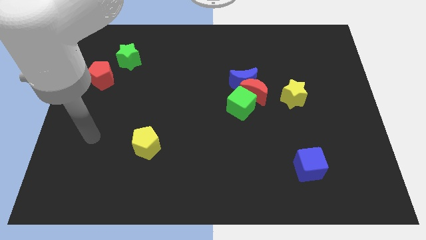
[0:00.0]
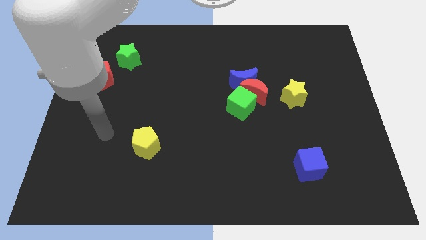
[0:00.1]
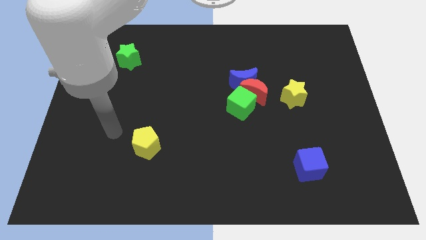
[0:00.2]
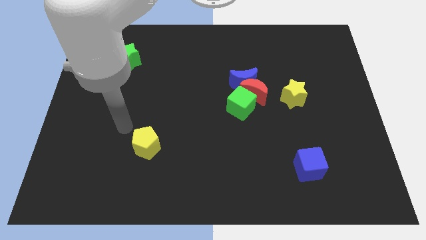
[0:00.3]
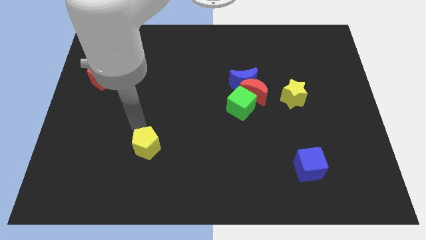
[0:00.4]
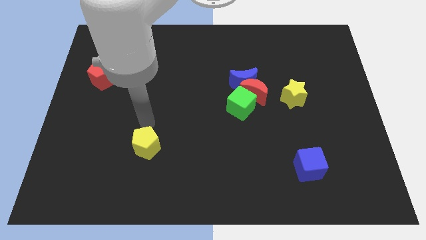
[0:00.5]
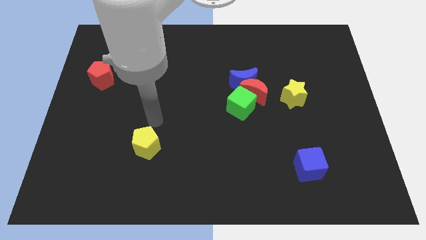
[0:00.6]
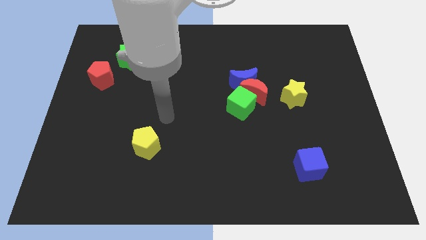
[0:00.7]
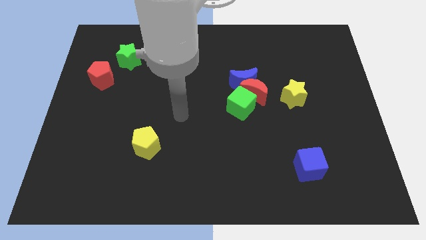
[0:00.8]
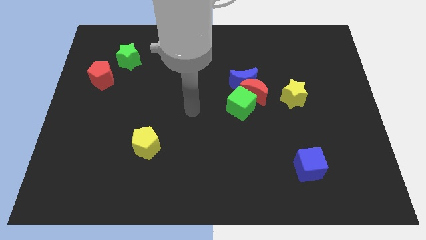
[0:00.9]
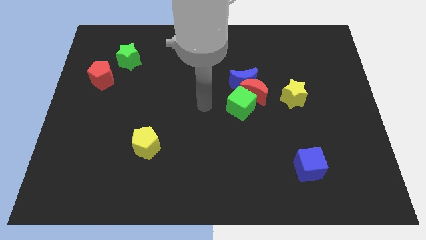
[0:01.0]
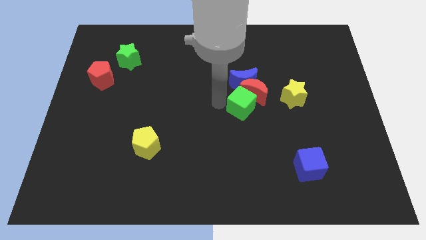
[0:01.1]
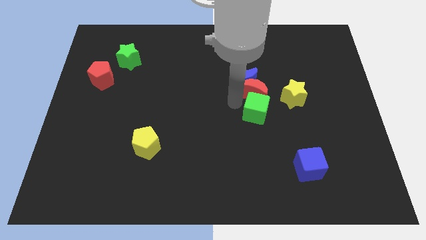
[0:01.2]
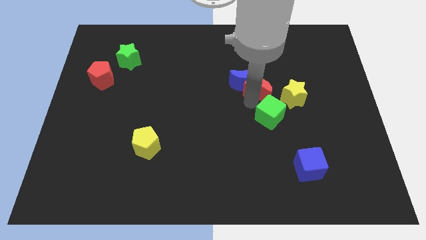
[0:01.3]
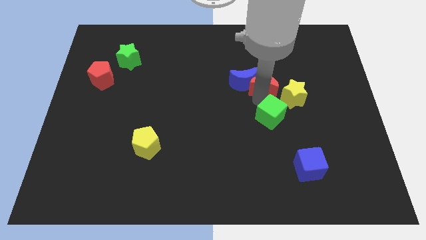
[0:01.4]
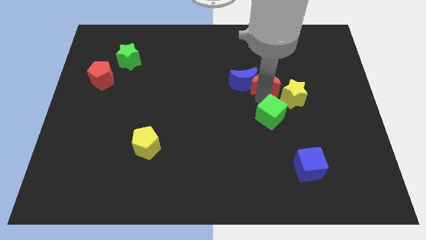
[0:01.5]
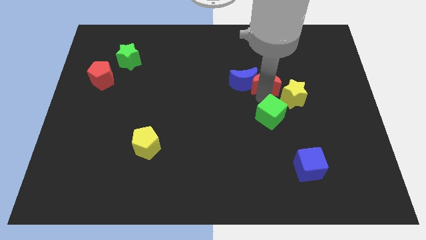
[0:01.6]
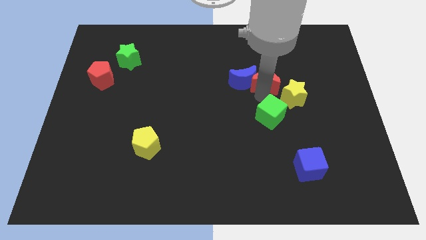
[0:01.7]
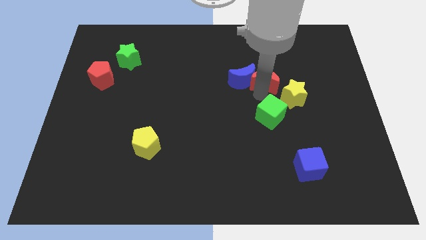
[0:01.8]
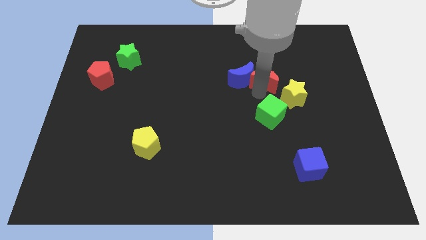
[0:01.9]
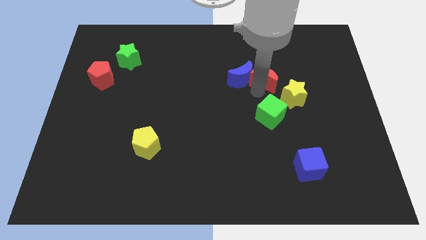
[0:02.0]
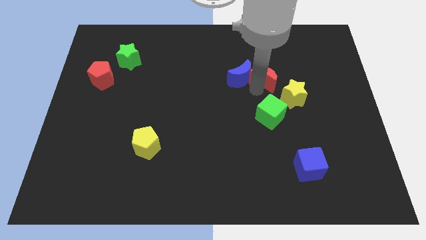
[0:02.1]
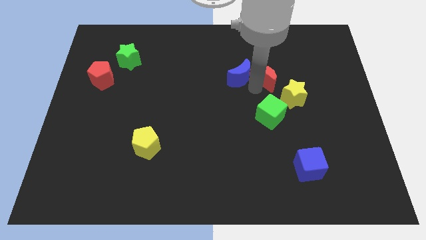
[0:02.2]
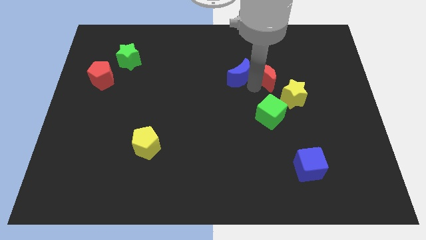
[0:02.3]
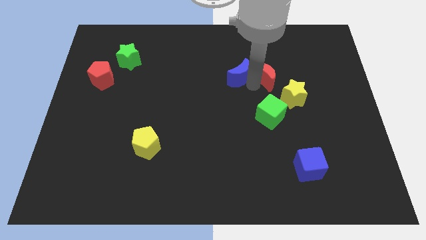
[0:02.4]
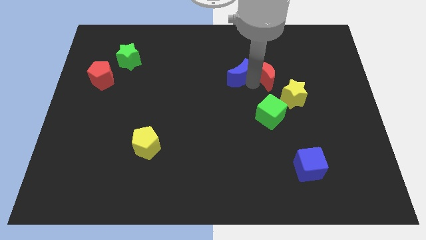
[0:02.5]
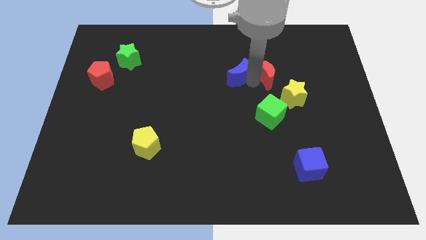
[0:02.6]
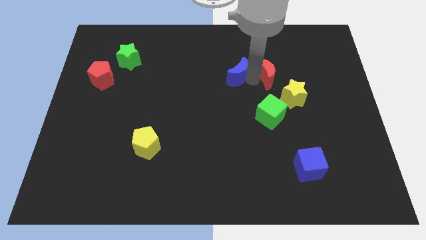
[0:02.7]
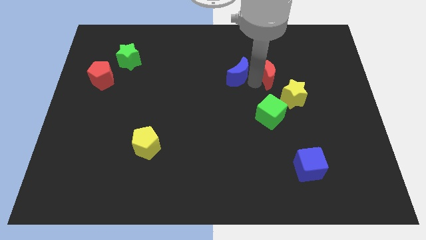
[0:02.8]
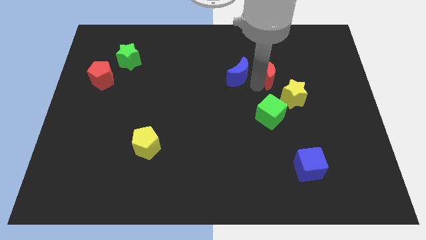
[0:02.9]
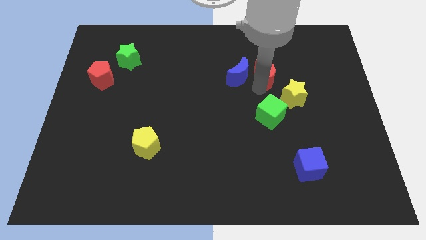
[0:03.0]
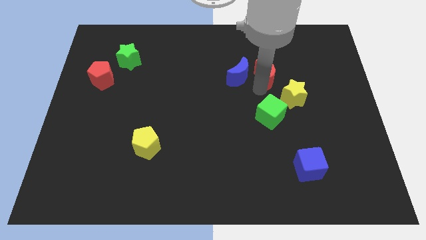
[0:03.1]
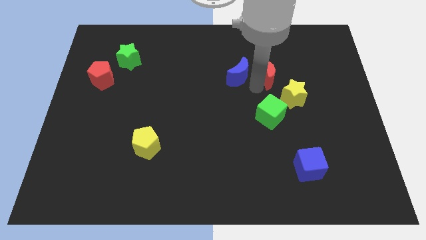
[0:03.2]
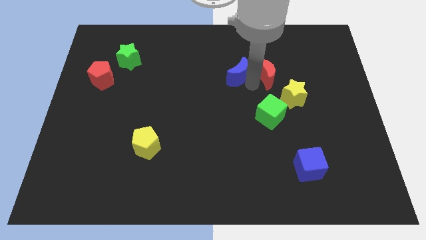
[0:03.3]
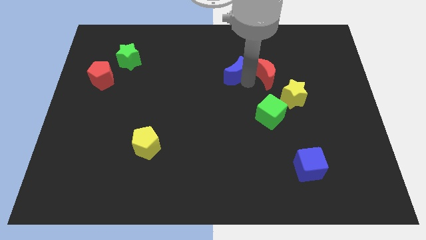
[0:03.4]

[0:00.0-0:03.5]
move the blue moon away from the red moon and green cube

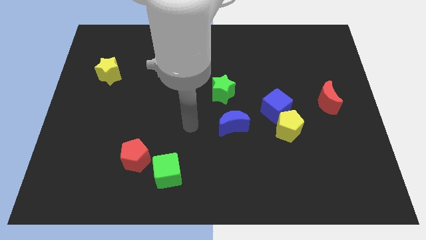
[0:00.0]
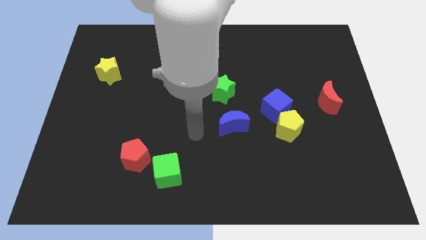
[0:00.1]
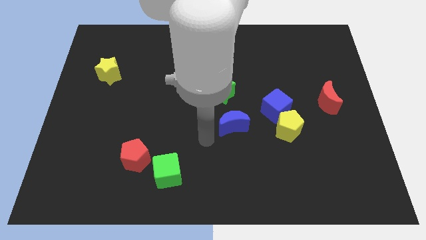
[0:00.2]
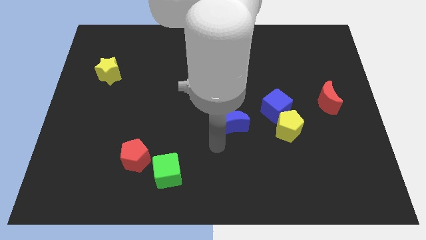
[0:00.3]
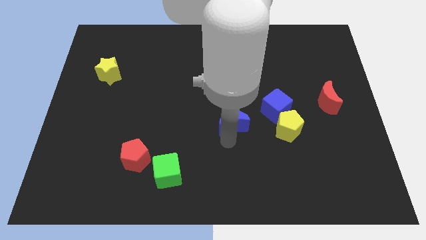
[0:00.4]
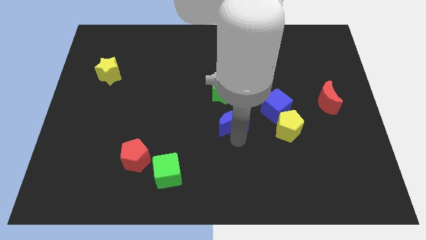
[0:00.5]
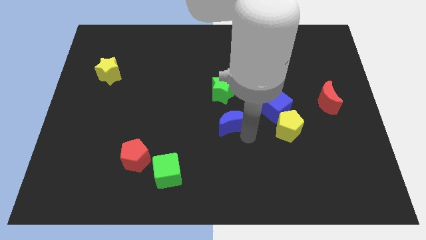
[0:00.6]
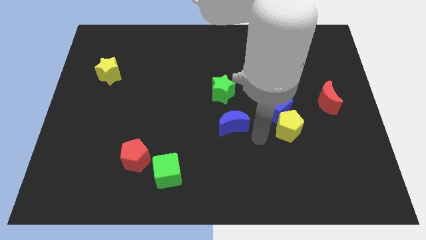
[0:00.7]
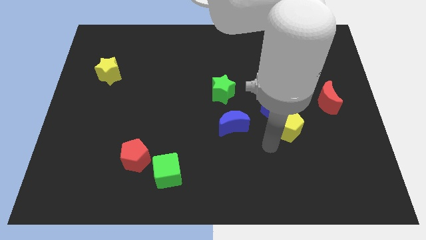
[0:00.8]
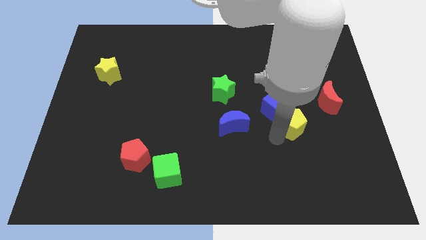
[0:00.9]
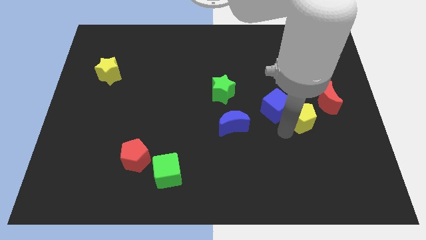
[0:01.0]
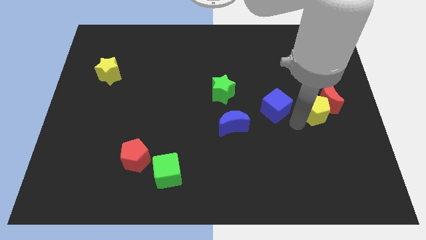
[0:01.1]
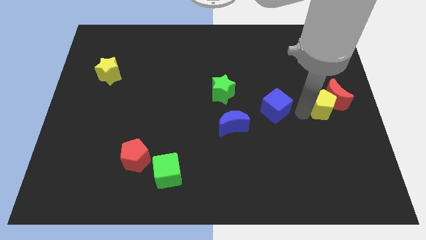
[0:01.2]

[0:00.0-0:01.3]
separate the blue cube from the yellow pentagon

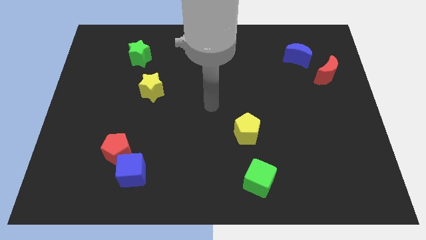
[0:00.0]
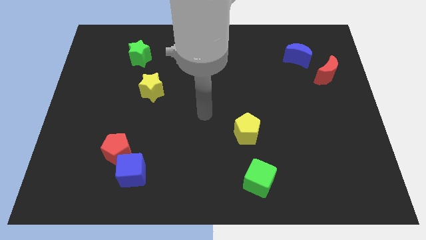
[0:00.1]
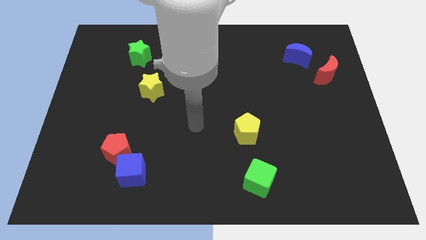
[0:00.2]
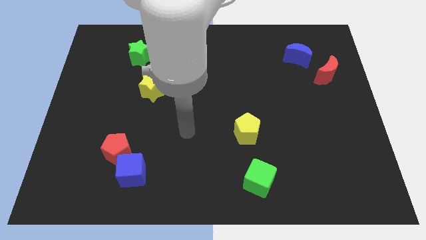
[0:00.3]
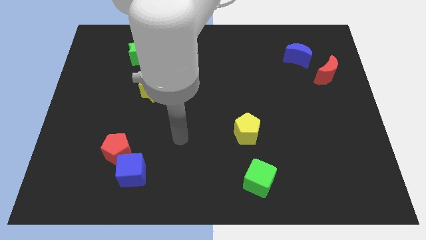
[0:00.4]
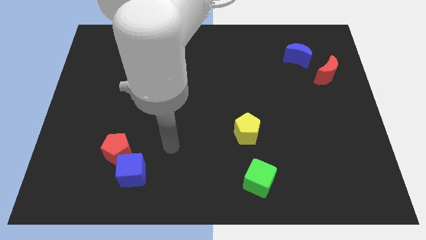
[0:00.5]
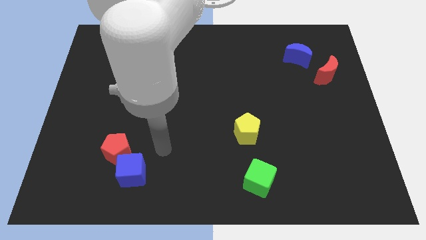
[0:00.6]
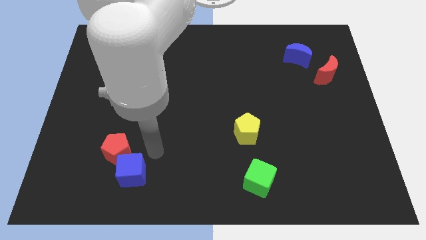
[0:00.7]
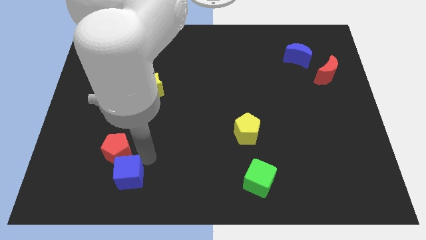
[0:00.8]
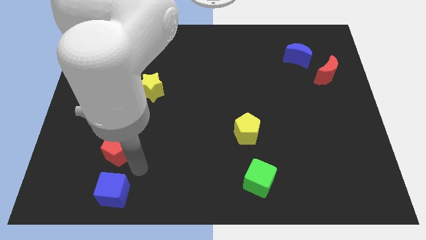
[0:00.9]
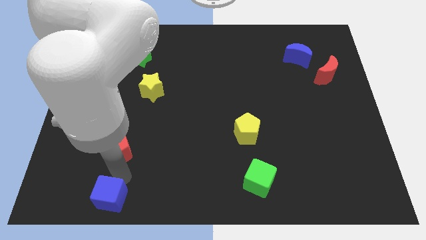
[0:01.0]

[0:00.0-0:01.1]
separate the red pentagon from the blue cube

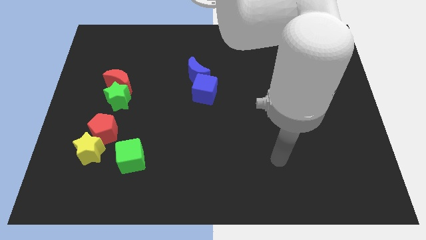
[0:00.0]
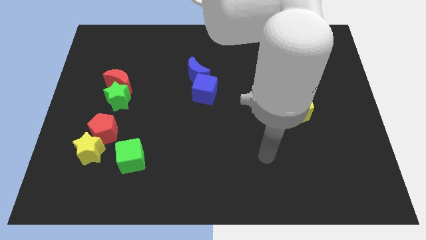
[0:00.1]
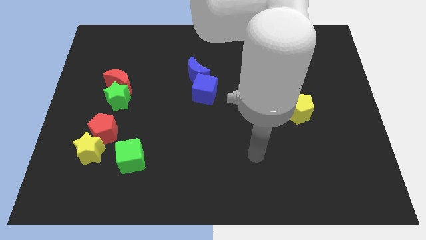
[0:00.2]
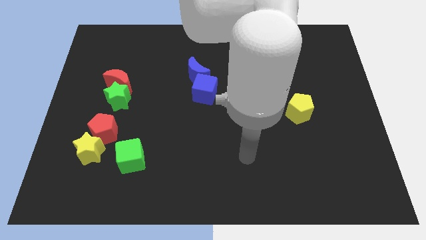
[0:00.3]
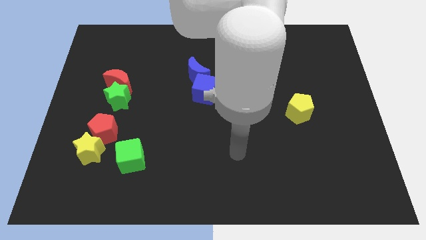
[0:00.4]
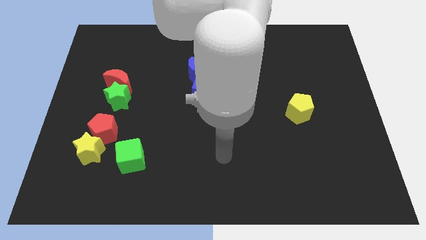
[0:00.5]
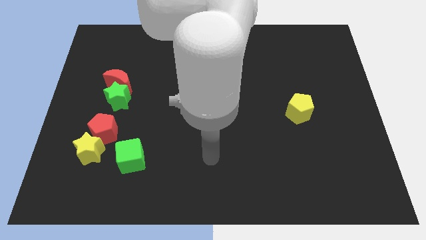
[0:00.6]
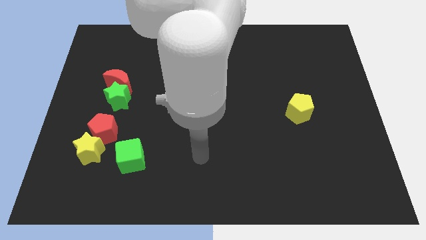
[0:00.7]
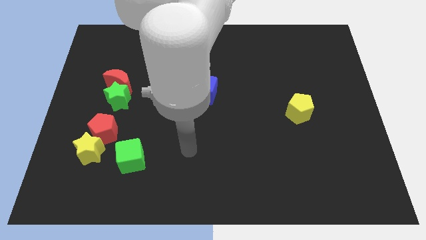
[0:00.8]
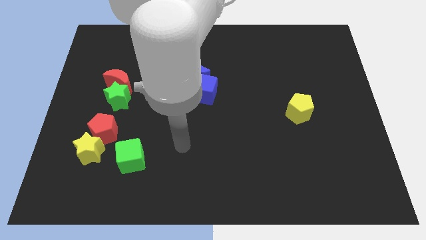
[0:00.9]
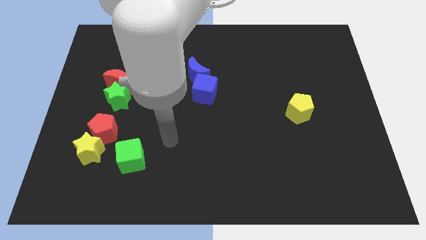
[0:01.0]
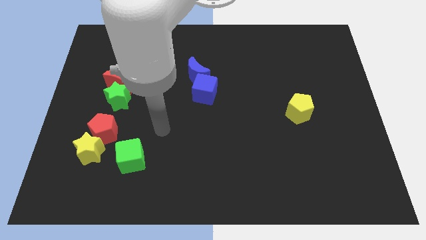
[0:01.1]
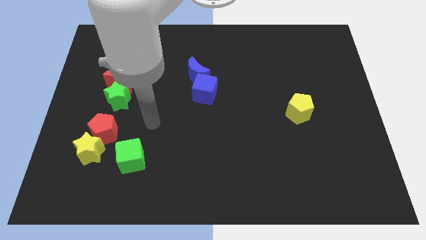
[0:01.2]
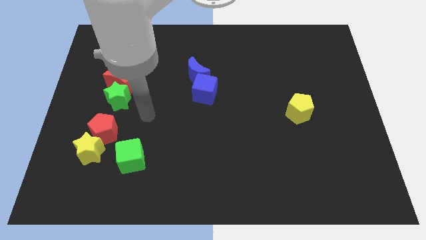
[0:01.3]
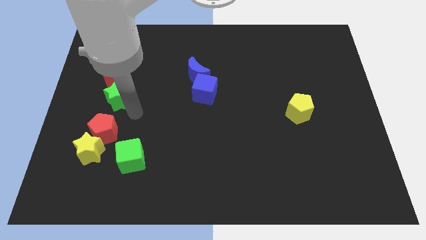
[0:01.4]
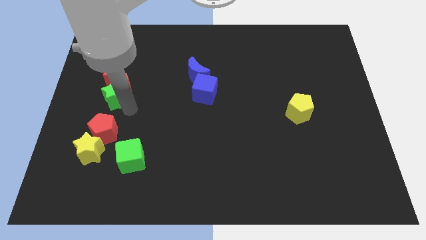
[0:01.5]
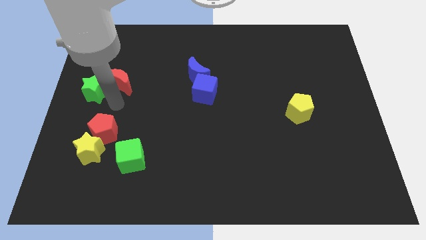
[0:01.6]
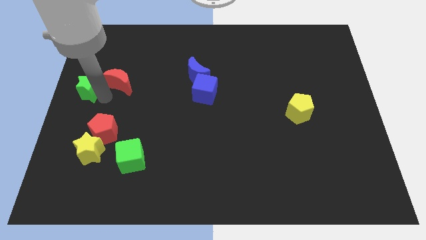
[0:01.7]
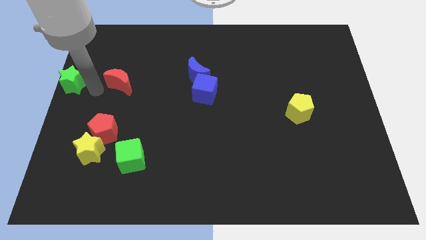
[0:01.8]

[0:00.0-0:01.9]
move the red moon away from the green star

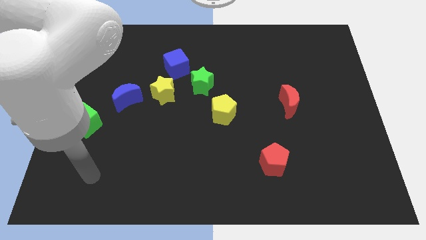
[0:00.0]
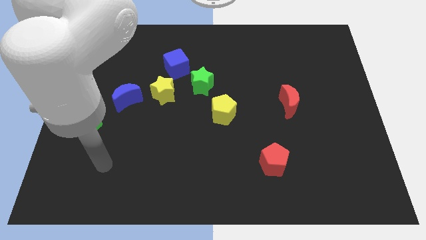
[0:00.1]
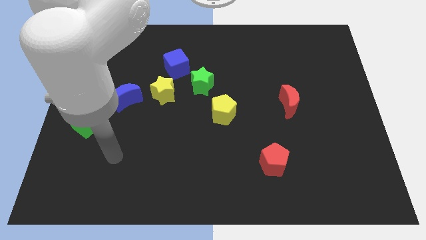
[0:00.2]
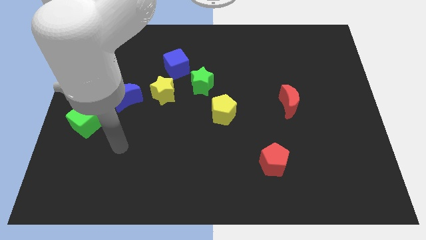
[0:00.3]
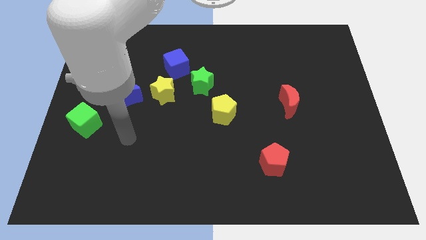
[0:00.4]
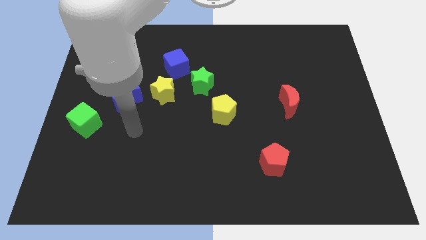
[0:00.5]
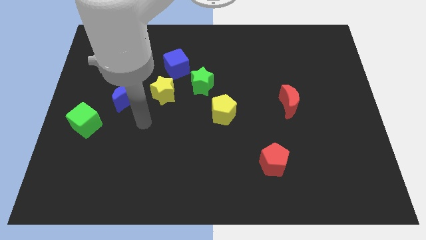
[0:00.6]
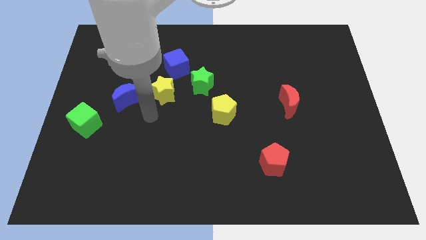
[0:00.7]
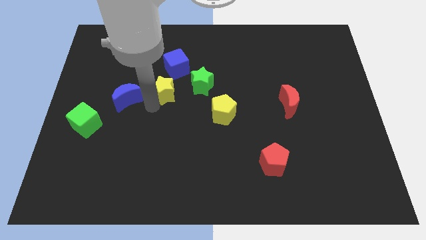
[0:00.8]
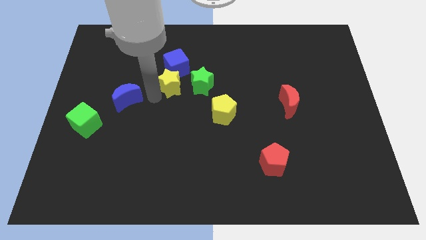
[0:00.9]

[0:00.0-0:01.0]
pull the blue moon apart from the yellow star

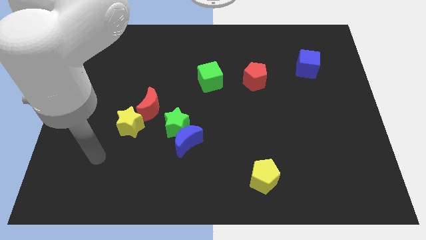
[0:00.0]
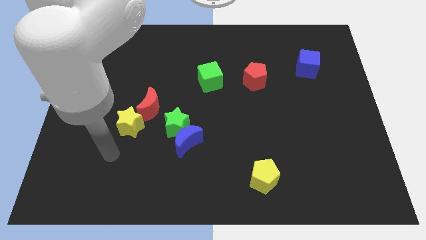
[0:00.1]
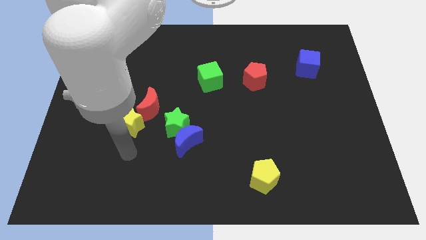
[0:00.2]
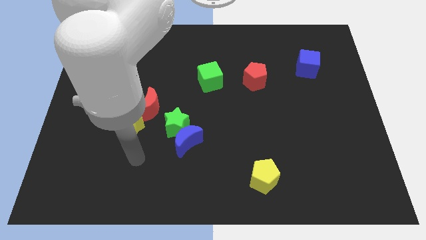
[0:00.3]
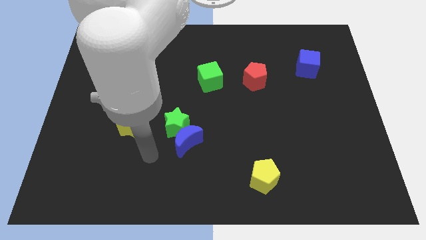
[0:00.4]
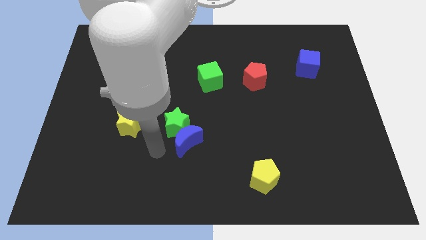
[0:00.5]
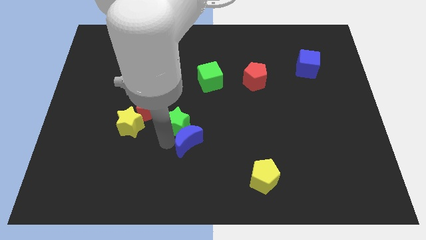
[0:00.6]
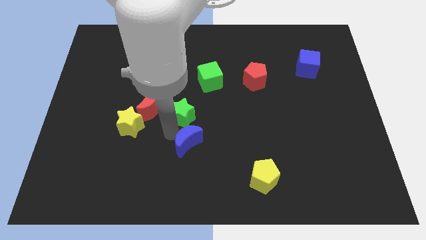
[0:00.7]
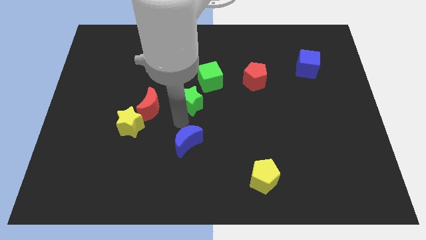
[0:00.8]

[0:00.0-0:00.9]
pull the blue moon apart from the green star
